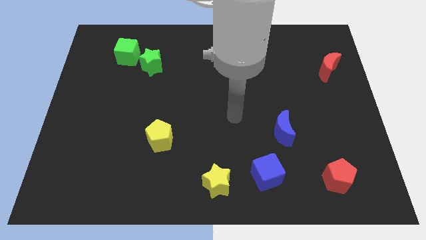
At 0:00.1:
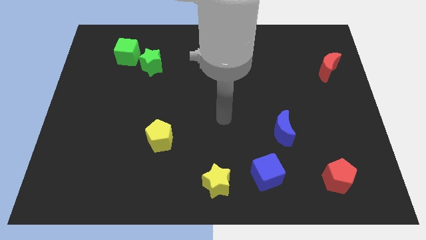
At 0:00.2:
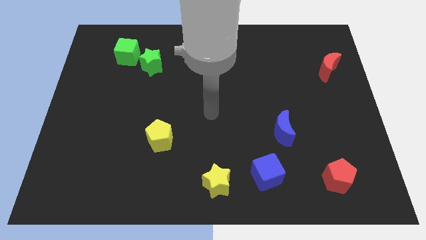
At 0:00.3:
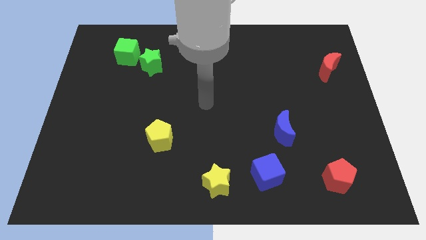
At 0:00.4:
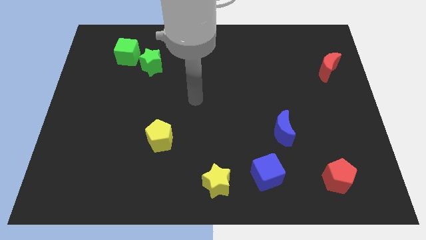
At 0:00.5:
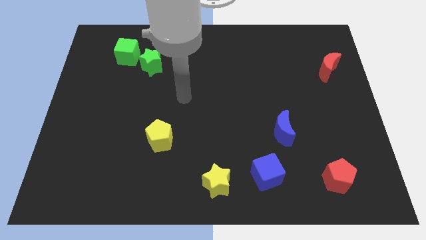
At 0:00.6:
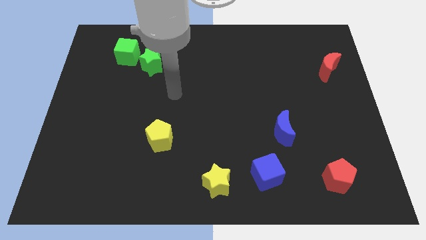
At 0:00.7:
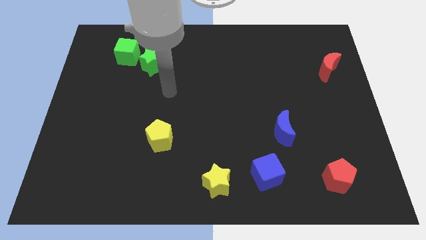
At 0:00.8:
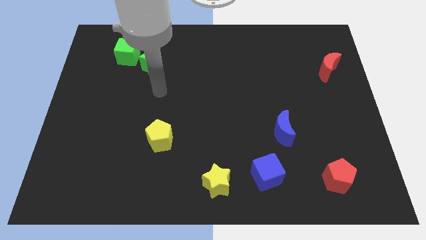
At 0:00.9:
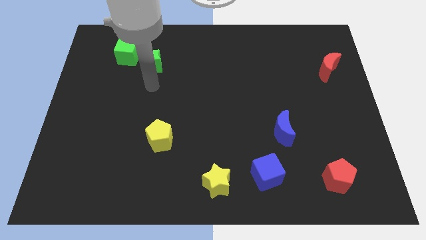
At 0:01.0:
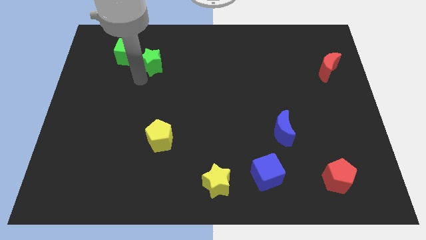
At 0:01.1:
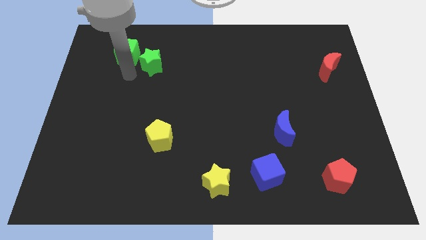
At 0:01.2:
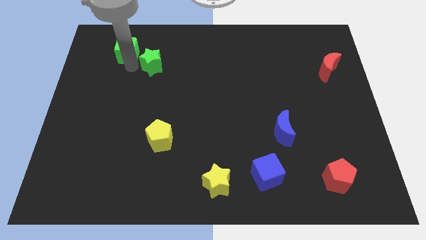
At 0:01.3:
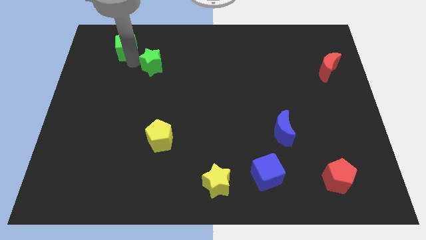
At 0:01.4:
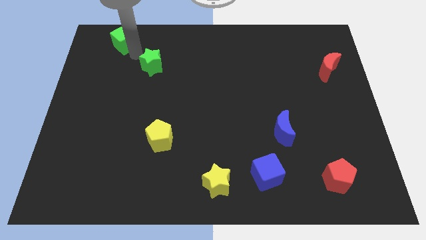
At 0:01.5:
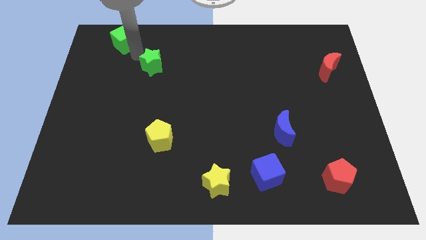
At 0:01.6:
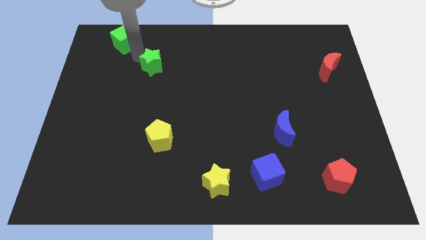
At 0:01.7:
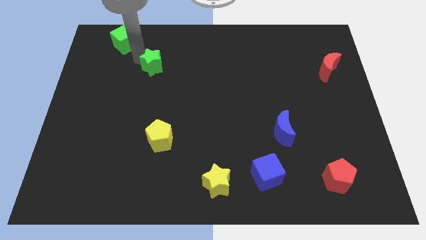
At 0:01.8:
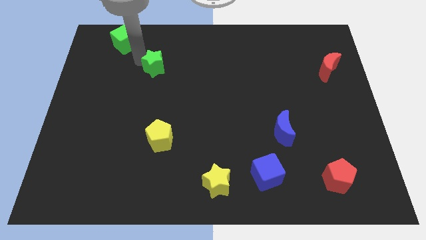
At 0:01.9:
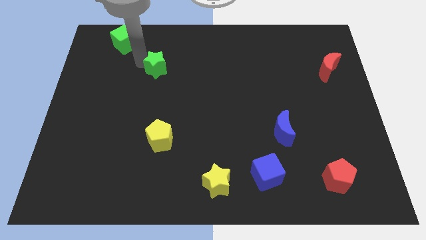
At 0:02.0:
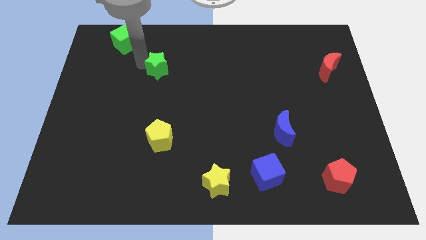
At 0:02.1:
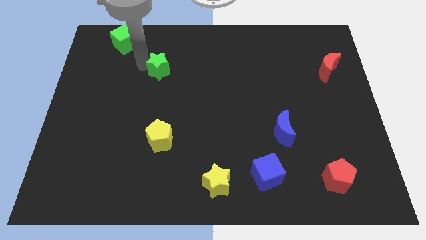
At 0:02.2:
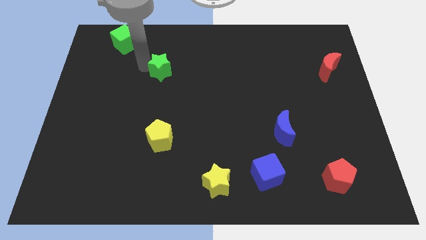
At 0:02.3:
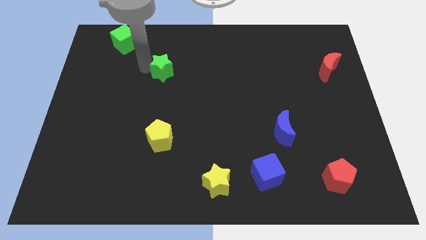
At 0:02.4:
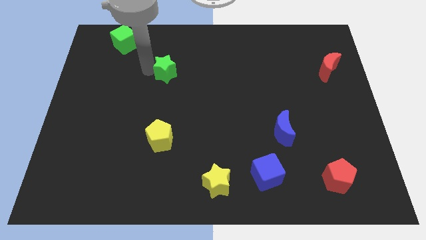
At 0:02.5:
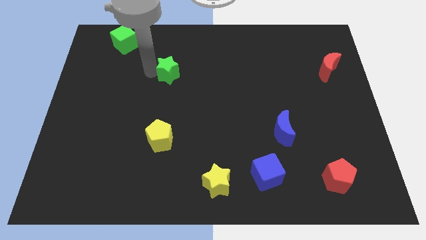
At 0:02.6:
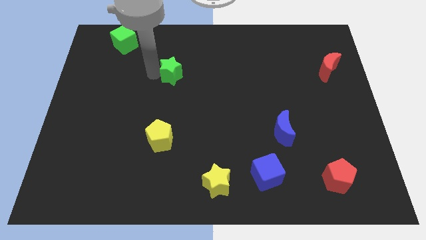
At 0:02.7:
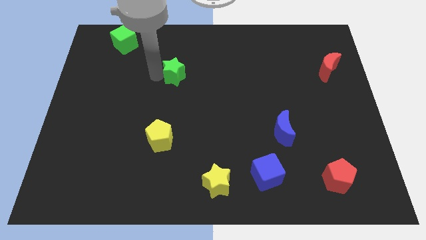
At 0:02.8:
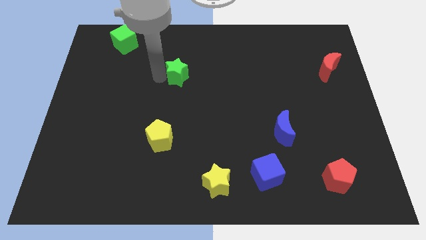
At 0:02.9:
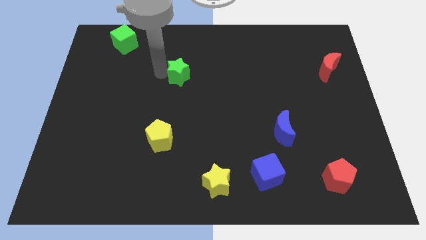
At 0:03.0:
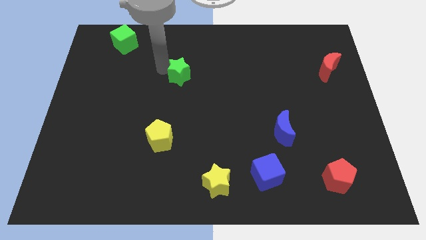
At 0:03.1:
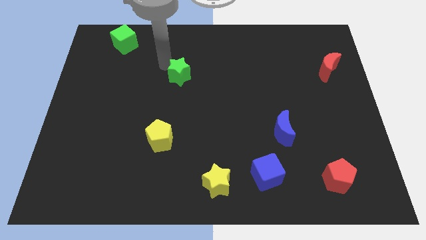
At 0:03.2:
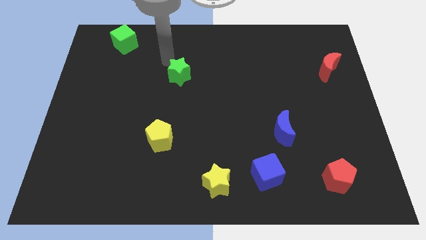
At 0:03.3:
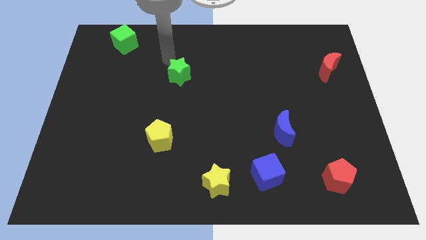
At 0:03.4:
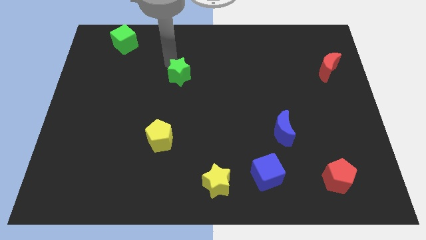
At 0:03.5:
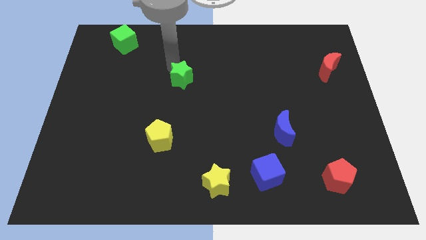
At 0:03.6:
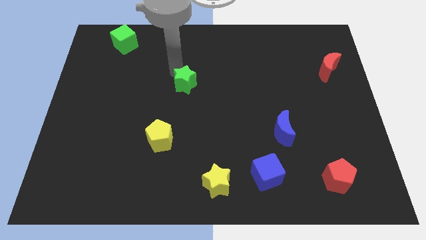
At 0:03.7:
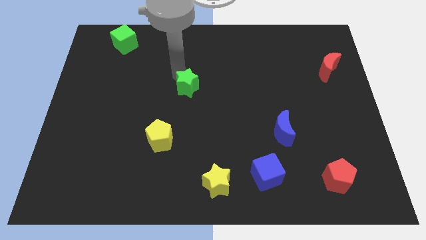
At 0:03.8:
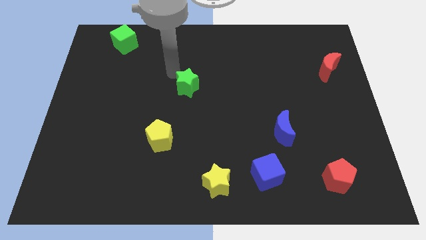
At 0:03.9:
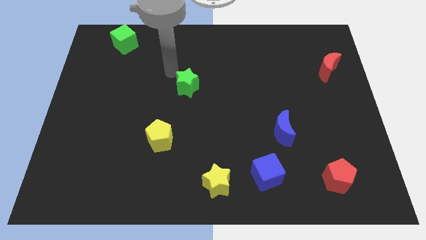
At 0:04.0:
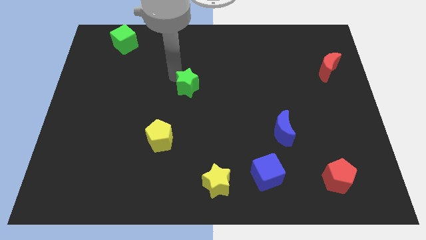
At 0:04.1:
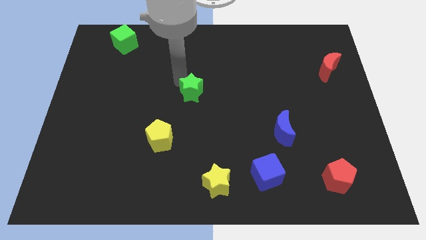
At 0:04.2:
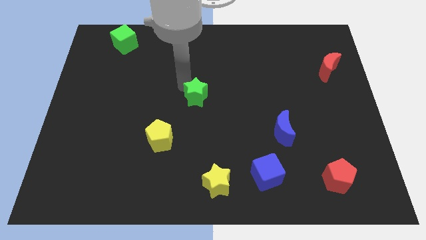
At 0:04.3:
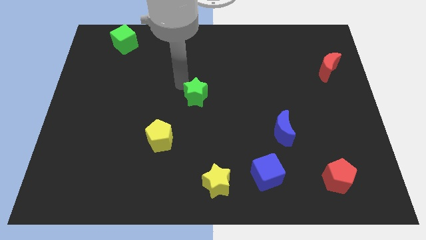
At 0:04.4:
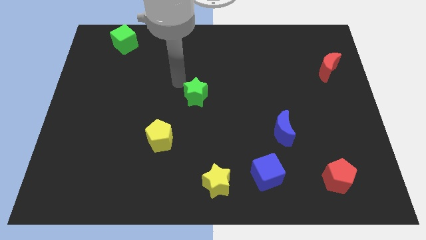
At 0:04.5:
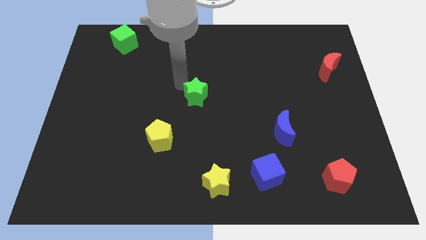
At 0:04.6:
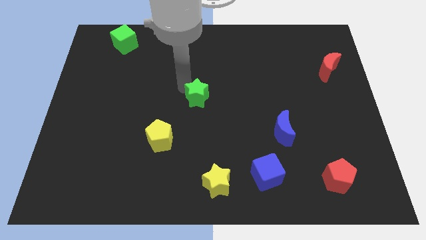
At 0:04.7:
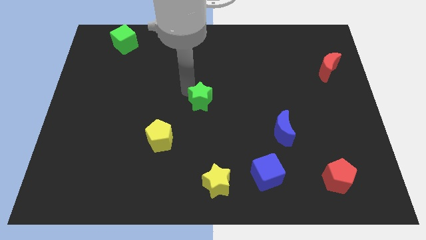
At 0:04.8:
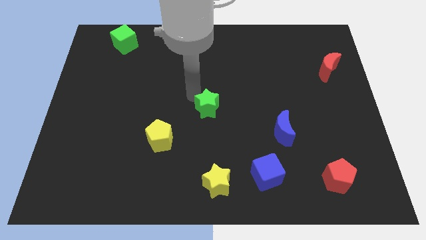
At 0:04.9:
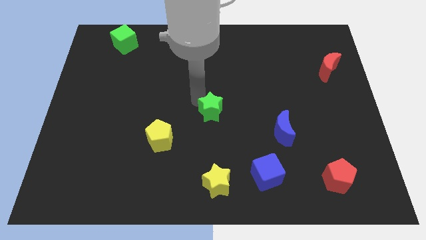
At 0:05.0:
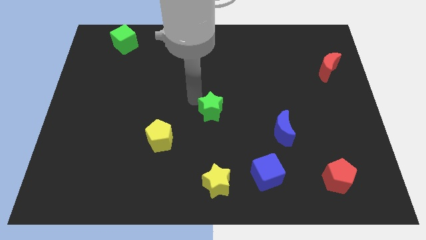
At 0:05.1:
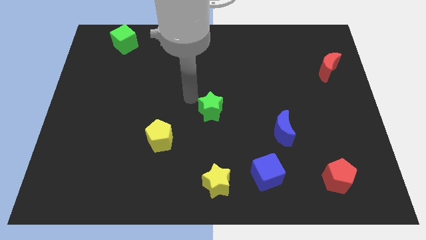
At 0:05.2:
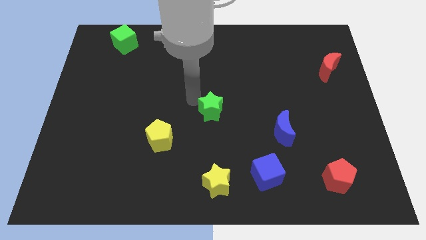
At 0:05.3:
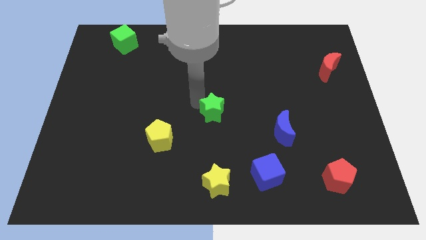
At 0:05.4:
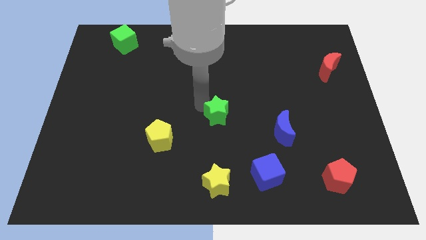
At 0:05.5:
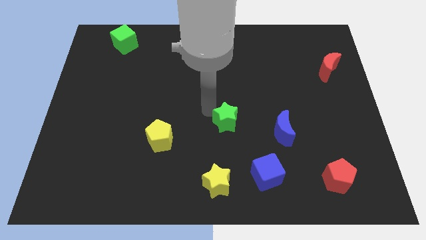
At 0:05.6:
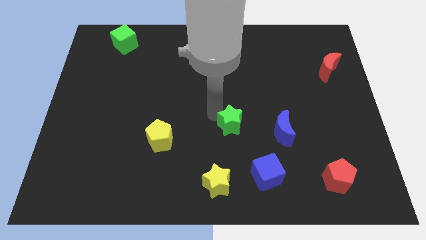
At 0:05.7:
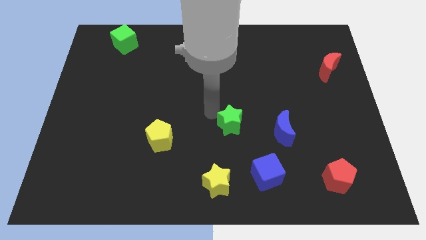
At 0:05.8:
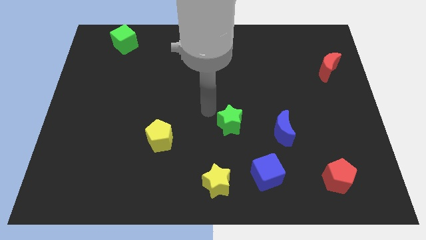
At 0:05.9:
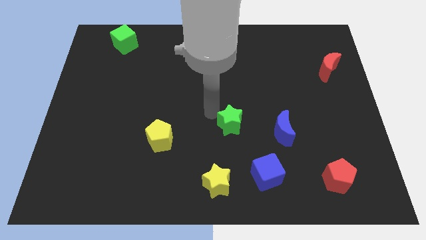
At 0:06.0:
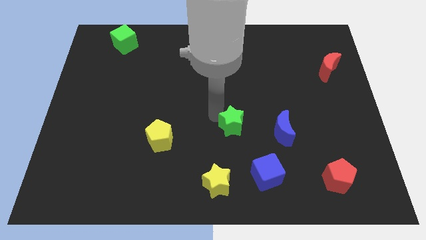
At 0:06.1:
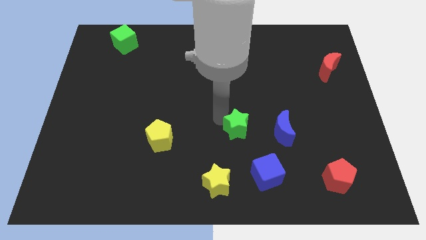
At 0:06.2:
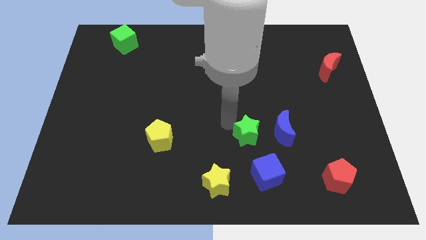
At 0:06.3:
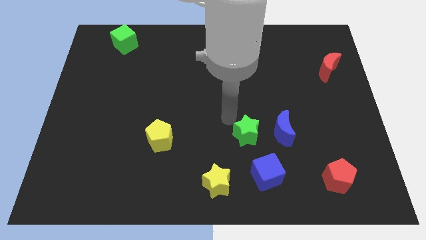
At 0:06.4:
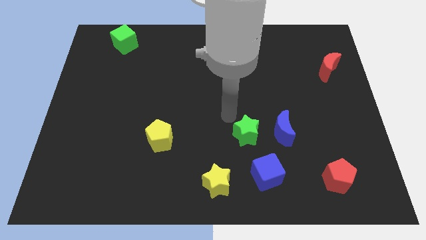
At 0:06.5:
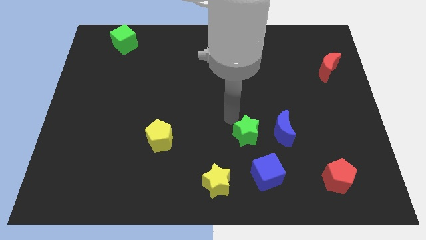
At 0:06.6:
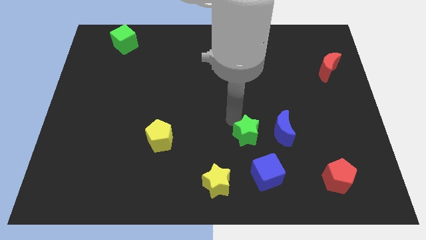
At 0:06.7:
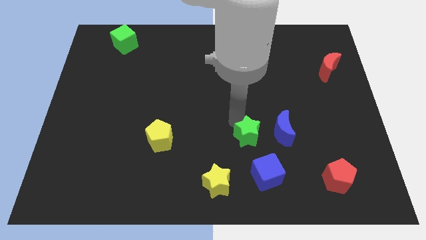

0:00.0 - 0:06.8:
slide the green star to the bottom left of the blue moon

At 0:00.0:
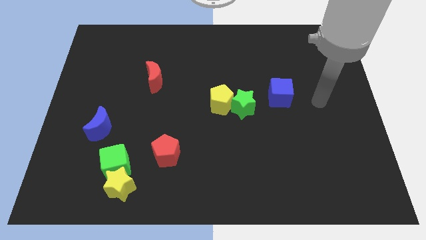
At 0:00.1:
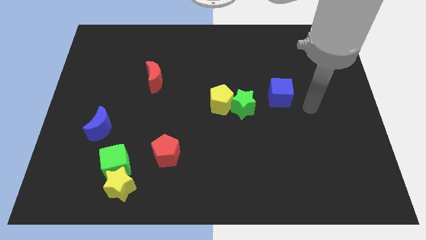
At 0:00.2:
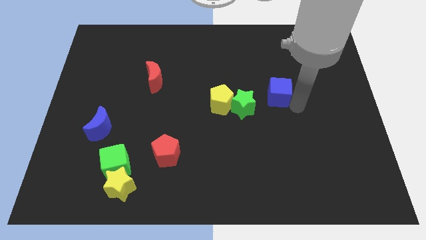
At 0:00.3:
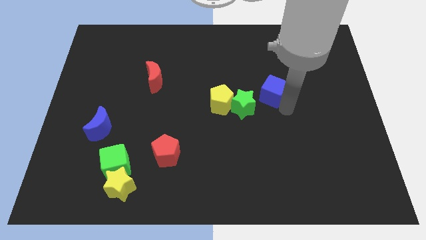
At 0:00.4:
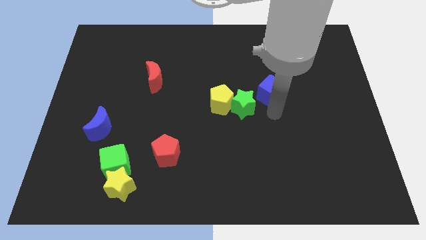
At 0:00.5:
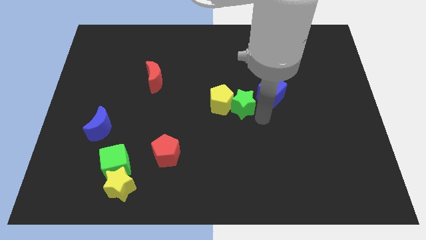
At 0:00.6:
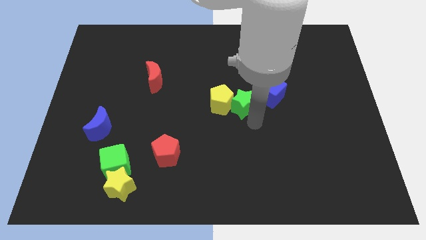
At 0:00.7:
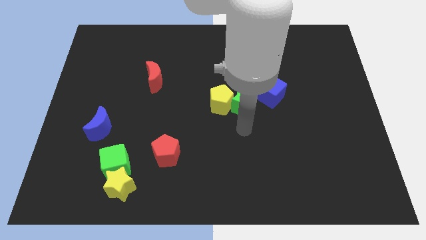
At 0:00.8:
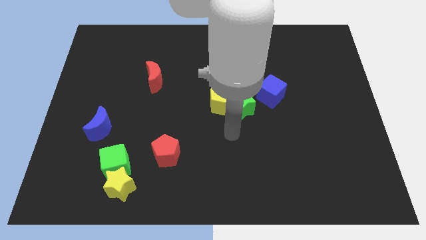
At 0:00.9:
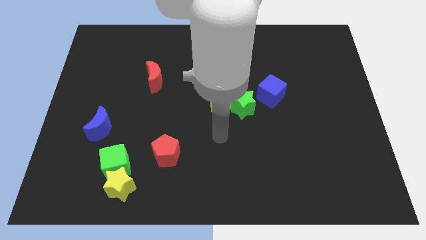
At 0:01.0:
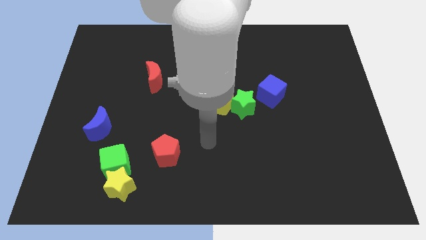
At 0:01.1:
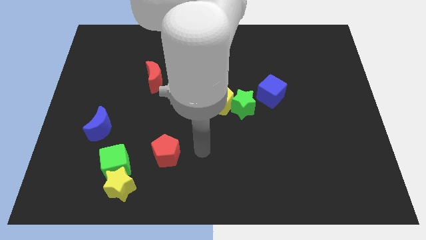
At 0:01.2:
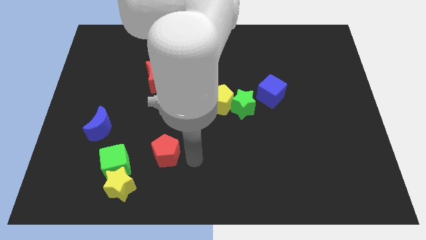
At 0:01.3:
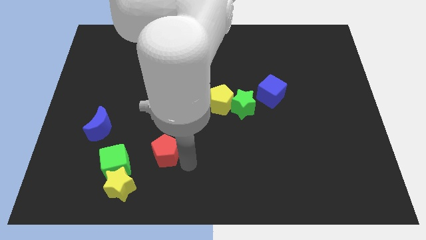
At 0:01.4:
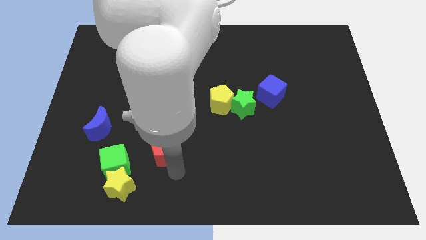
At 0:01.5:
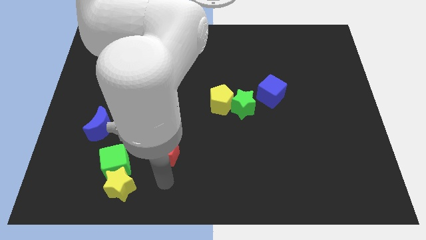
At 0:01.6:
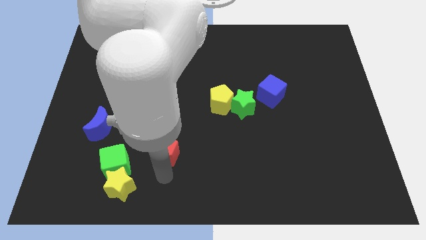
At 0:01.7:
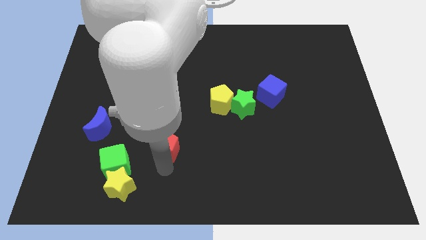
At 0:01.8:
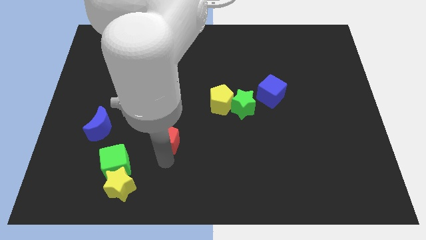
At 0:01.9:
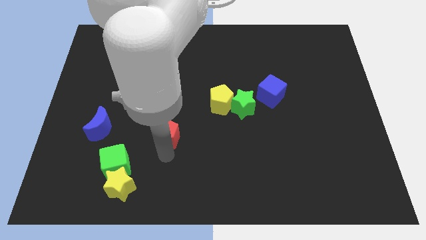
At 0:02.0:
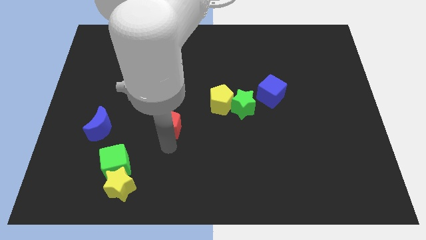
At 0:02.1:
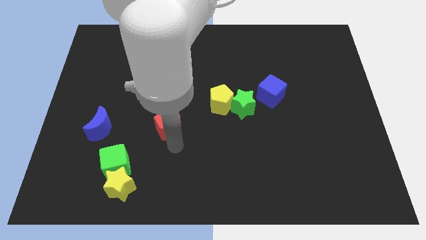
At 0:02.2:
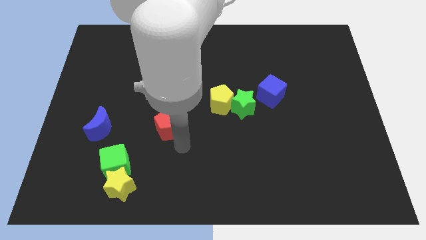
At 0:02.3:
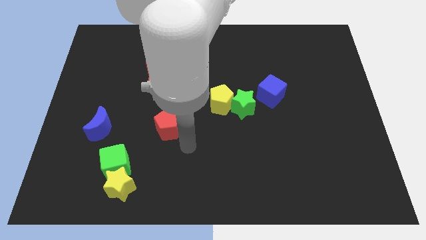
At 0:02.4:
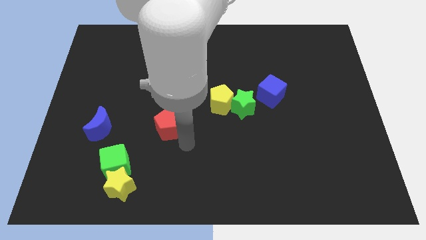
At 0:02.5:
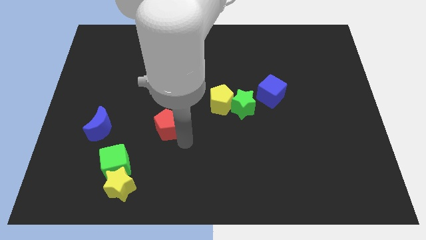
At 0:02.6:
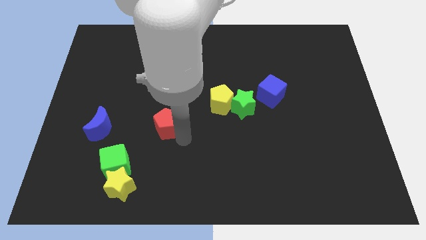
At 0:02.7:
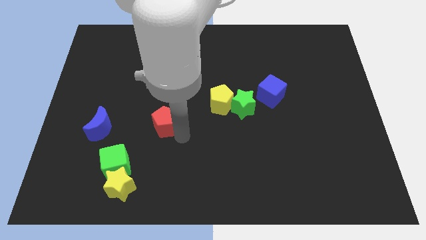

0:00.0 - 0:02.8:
move the red pentagon to the bottom of the red moon
